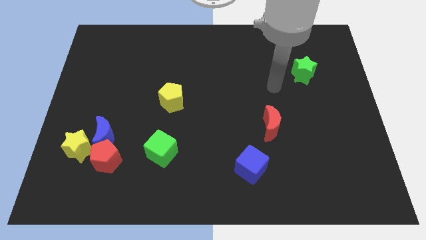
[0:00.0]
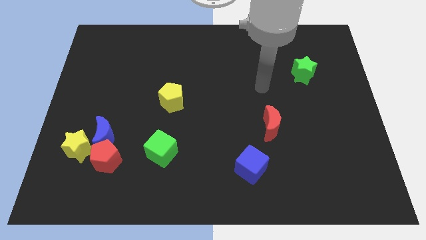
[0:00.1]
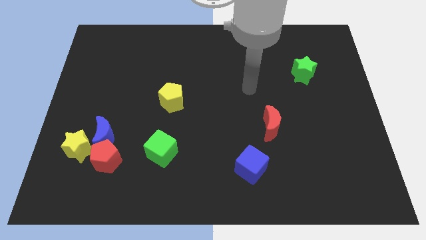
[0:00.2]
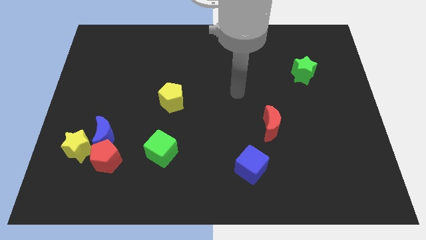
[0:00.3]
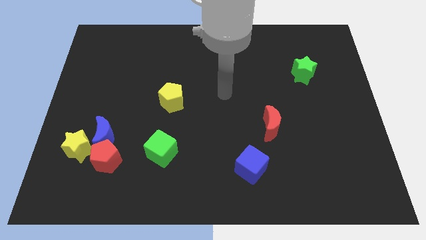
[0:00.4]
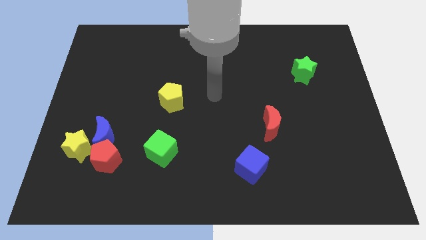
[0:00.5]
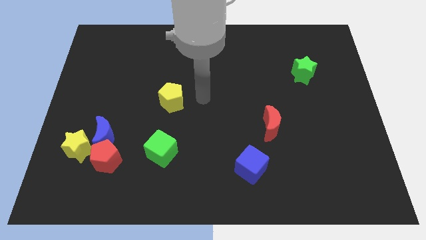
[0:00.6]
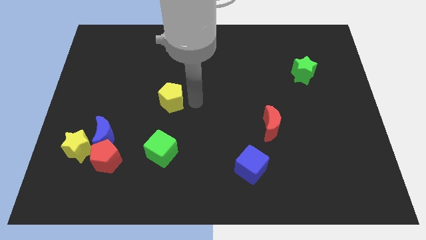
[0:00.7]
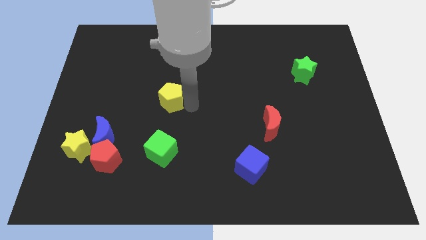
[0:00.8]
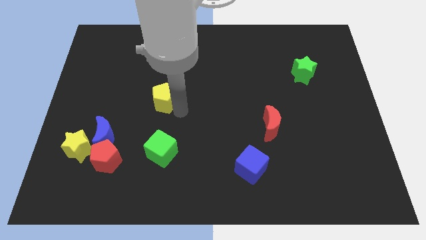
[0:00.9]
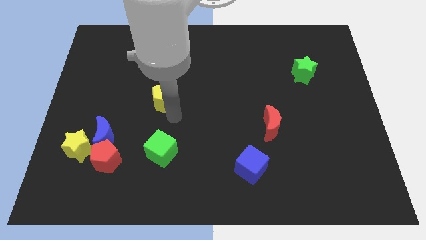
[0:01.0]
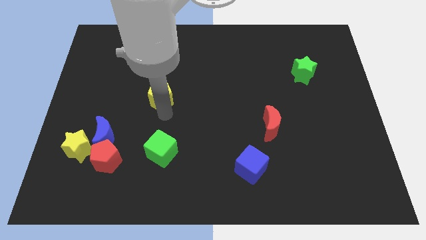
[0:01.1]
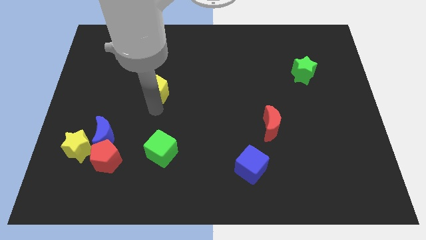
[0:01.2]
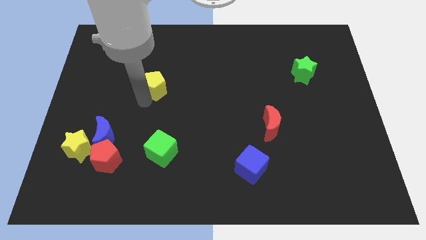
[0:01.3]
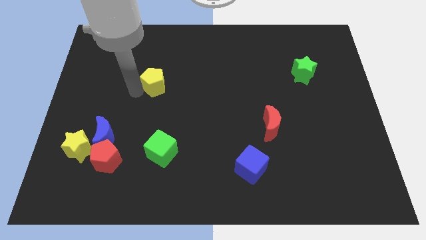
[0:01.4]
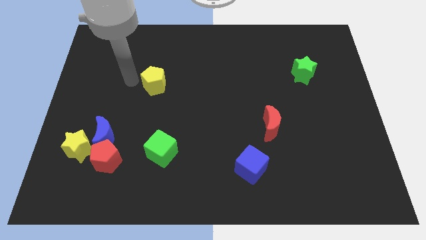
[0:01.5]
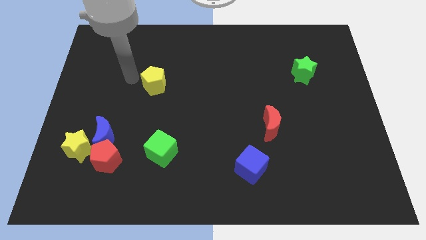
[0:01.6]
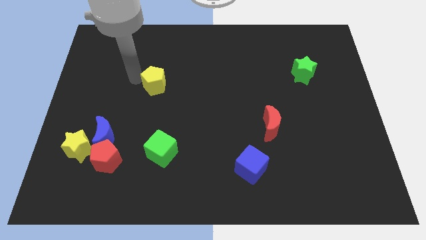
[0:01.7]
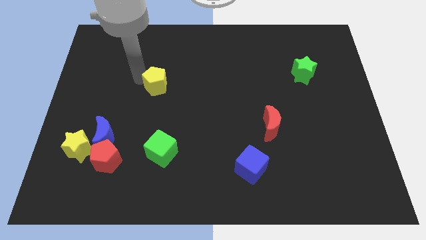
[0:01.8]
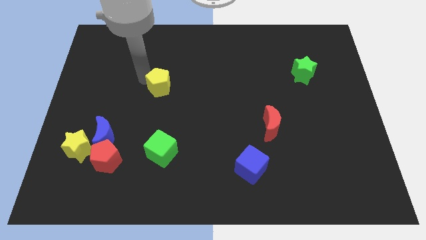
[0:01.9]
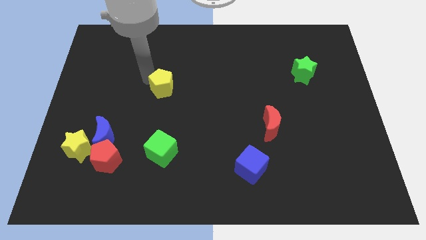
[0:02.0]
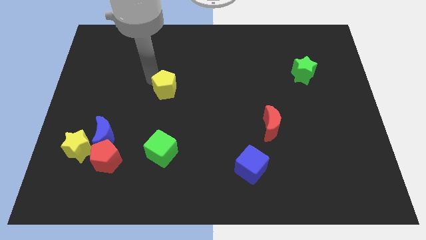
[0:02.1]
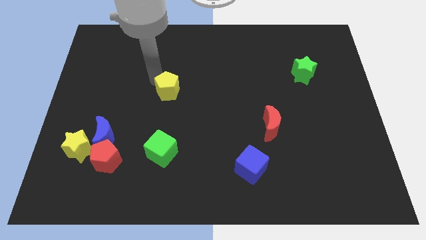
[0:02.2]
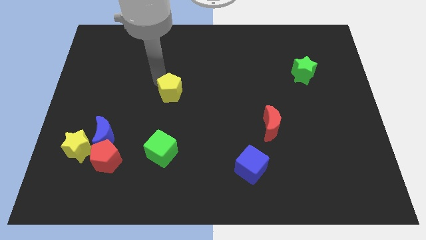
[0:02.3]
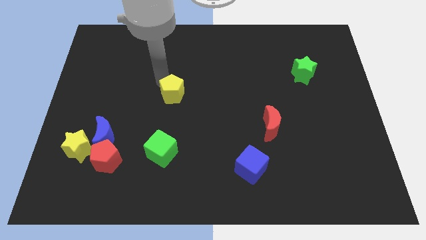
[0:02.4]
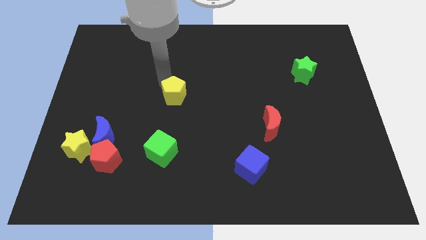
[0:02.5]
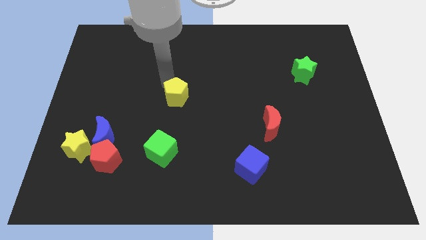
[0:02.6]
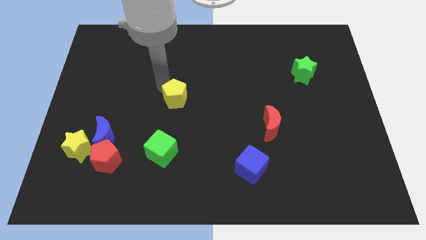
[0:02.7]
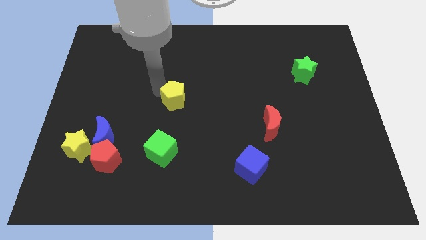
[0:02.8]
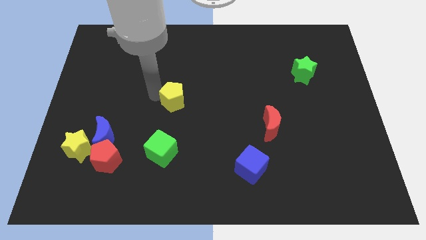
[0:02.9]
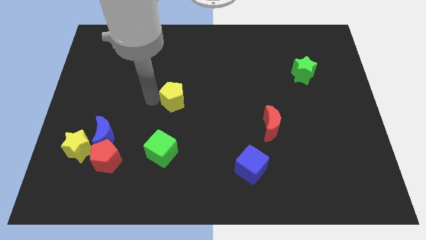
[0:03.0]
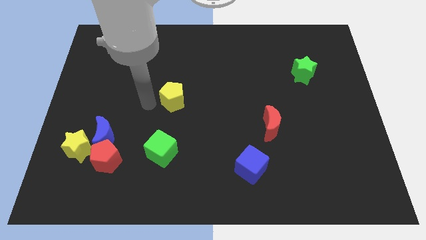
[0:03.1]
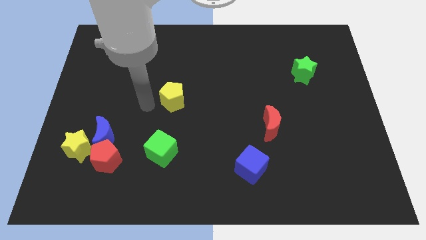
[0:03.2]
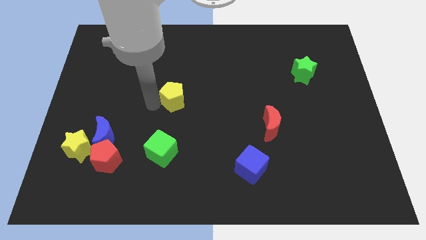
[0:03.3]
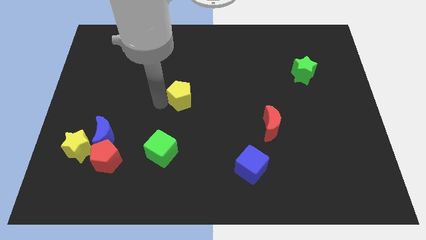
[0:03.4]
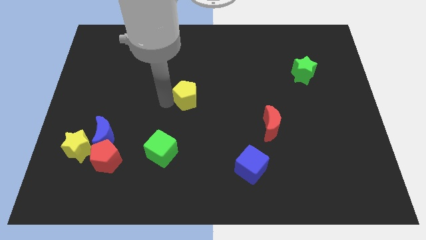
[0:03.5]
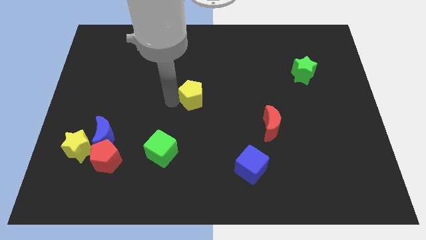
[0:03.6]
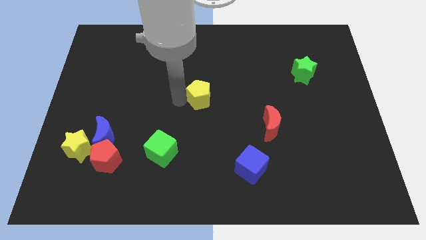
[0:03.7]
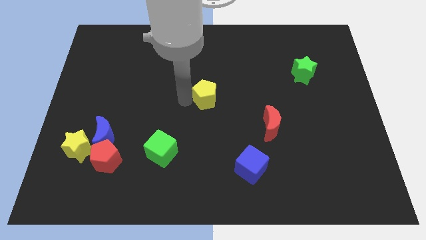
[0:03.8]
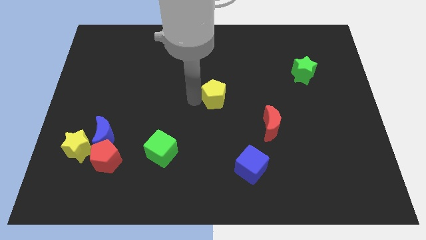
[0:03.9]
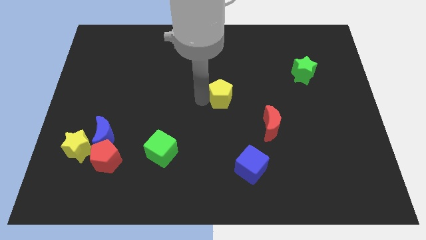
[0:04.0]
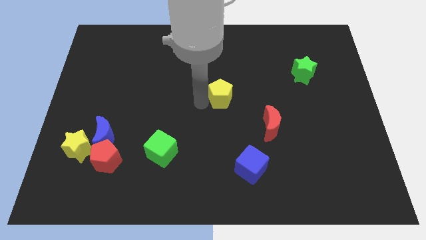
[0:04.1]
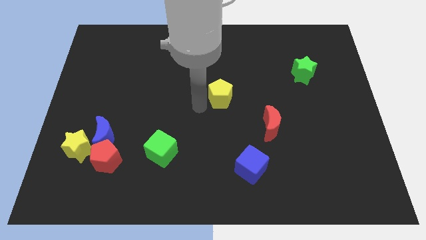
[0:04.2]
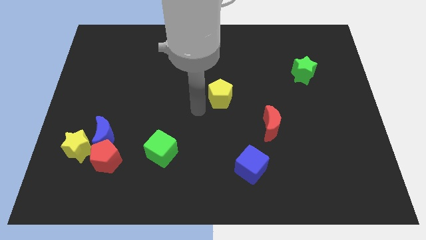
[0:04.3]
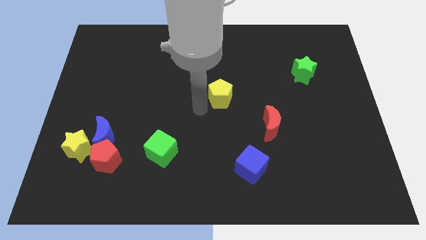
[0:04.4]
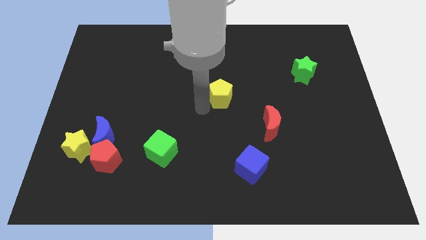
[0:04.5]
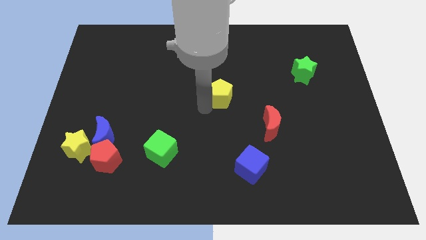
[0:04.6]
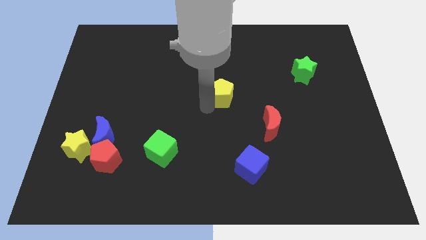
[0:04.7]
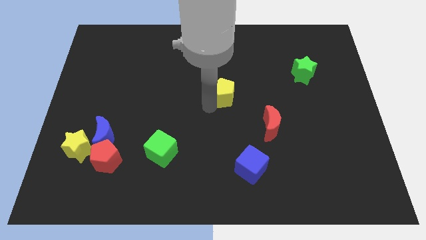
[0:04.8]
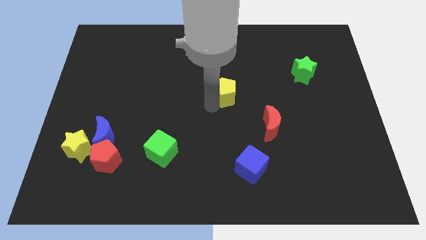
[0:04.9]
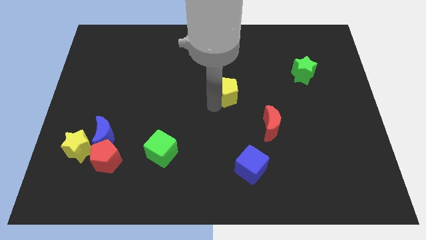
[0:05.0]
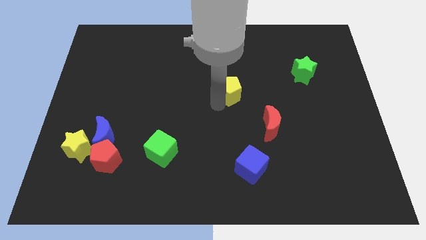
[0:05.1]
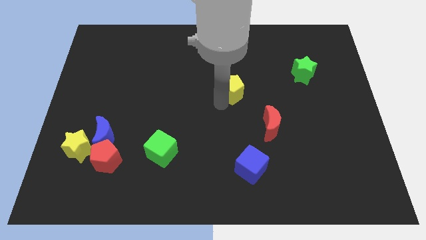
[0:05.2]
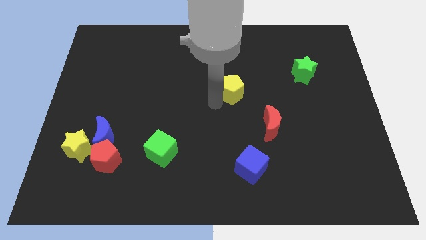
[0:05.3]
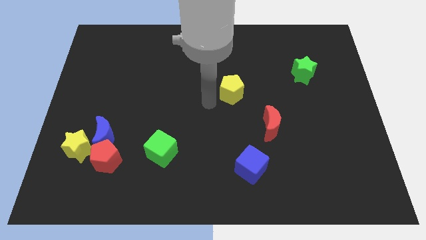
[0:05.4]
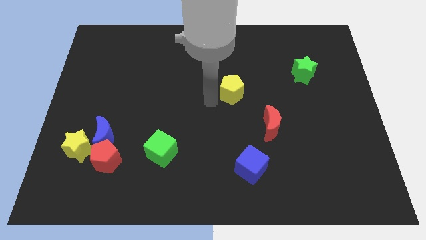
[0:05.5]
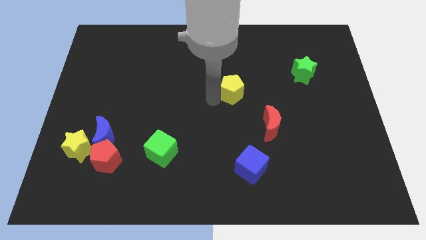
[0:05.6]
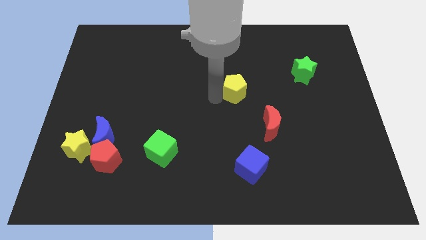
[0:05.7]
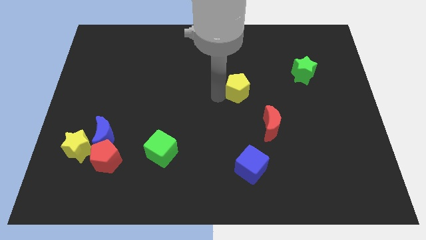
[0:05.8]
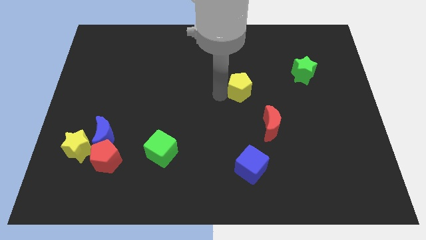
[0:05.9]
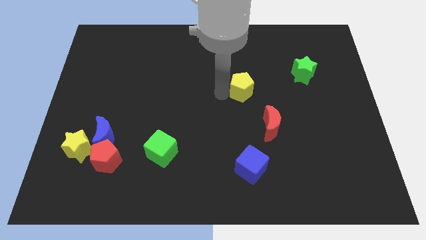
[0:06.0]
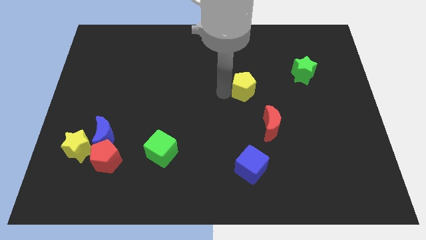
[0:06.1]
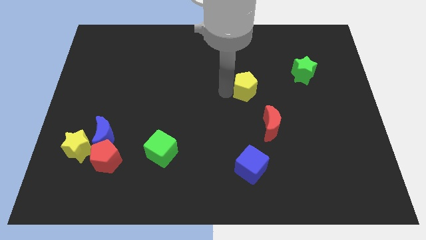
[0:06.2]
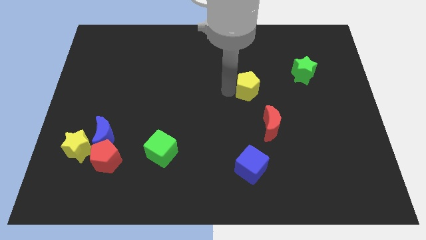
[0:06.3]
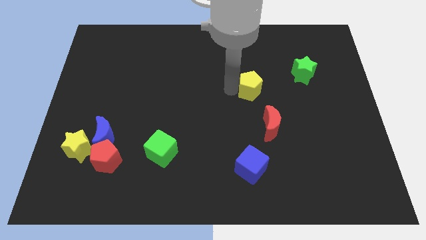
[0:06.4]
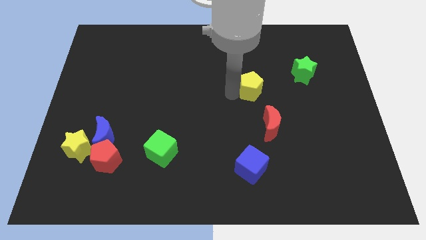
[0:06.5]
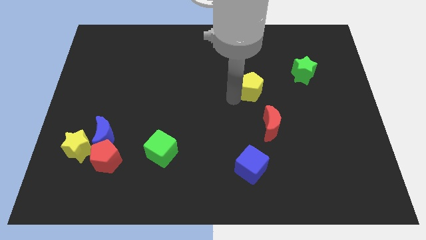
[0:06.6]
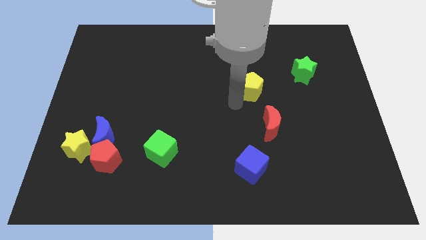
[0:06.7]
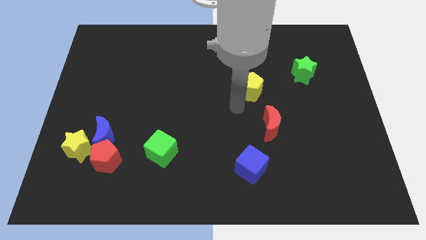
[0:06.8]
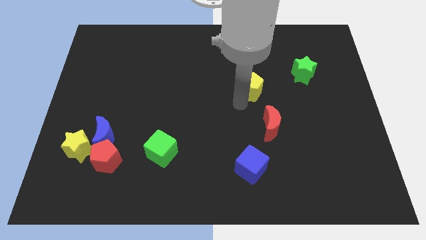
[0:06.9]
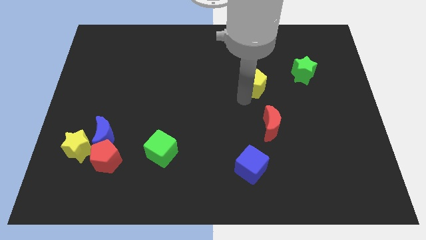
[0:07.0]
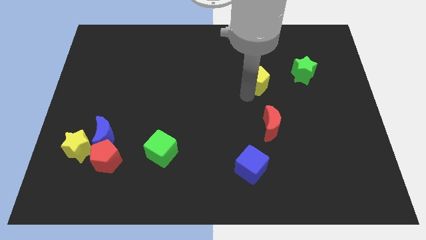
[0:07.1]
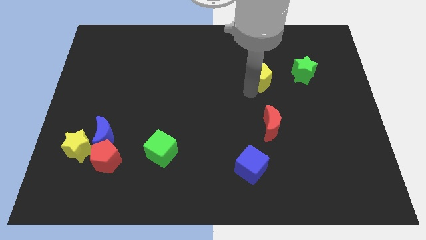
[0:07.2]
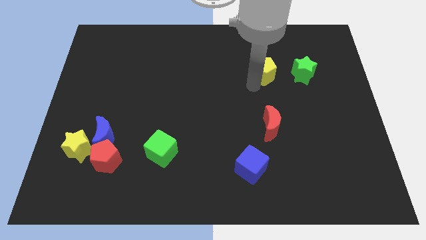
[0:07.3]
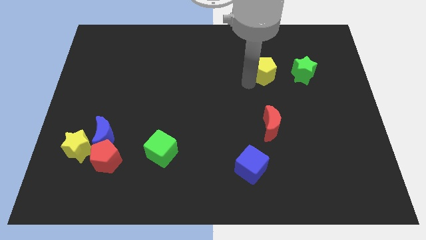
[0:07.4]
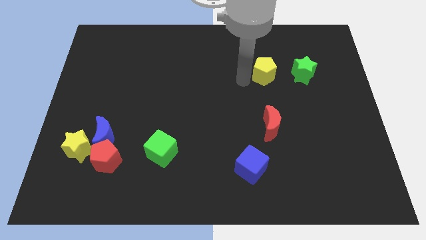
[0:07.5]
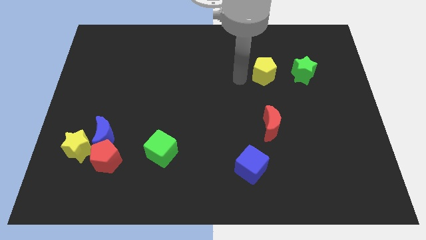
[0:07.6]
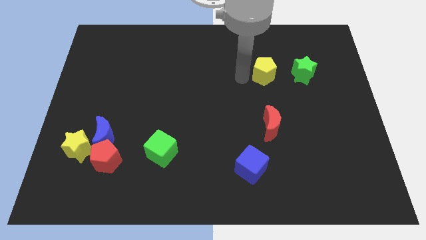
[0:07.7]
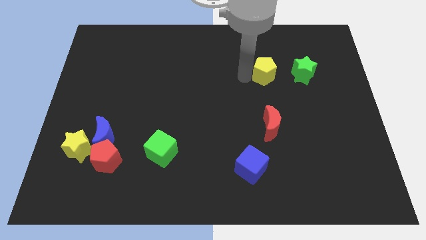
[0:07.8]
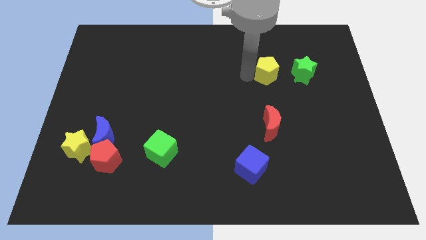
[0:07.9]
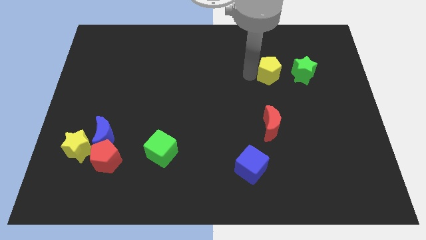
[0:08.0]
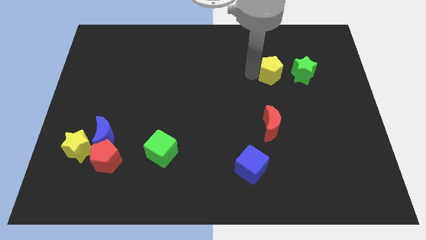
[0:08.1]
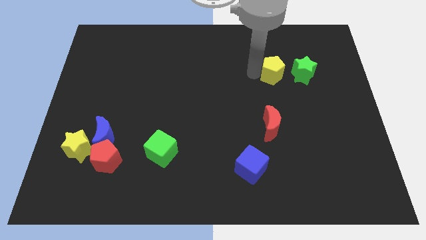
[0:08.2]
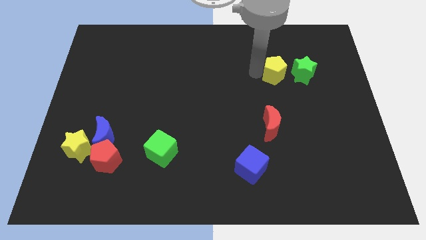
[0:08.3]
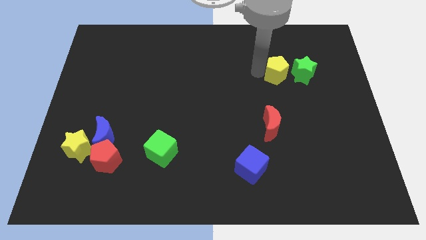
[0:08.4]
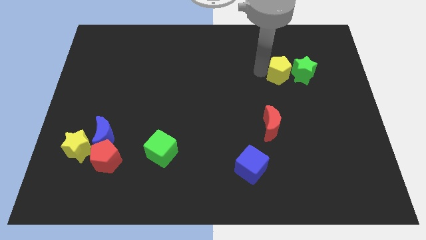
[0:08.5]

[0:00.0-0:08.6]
move the yellow pentagon to the green star
